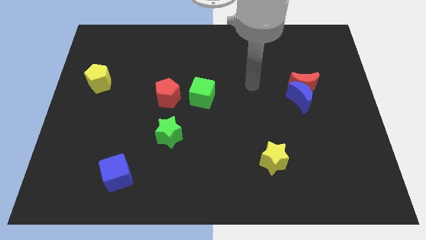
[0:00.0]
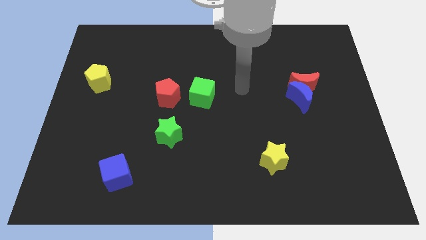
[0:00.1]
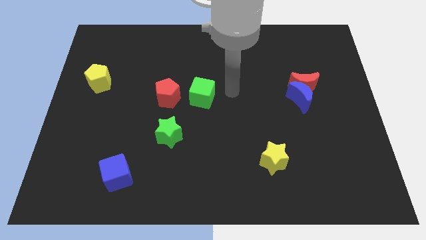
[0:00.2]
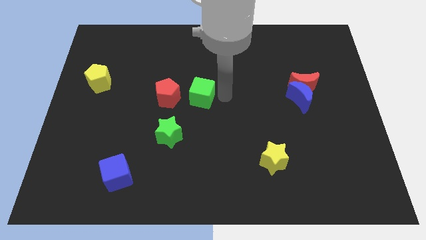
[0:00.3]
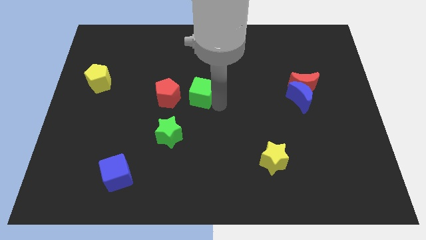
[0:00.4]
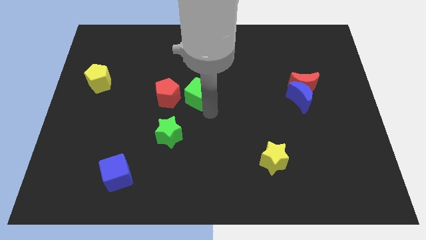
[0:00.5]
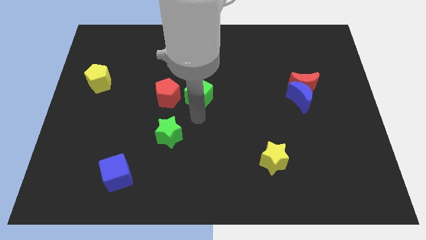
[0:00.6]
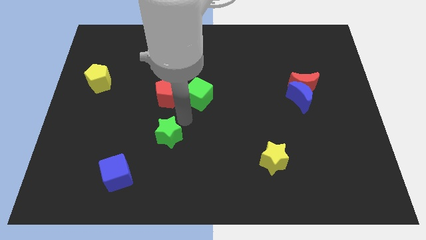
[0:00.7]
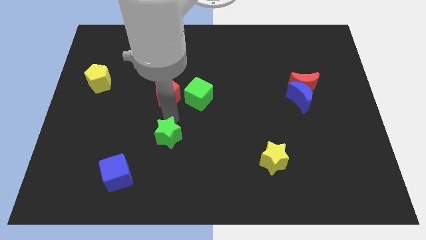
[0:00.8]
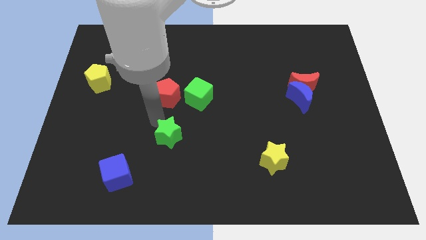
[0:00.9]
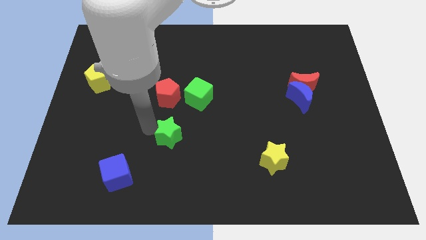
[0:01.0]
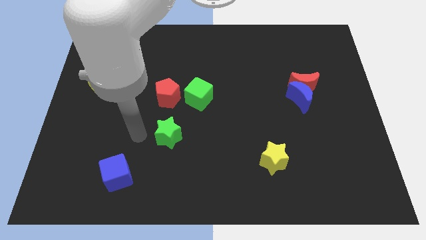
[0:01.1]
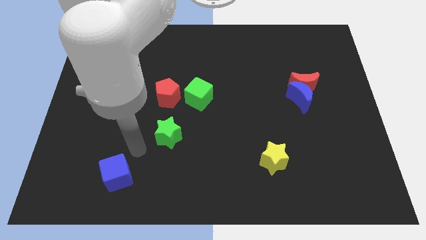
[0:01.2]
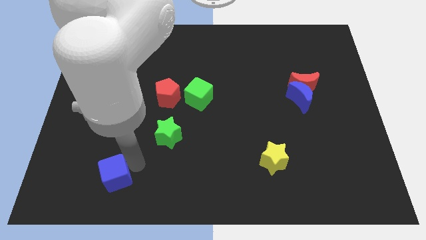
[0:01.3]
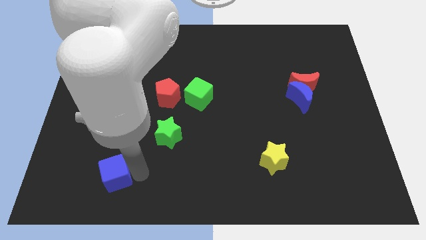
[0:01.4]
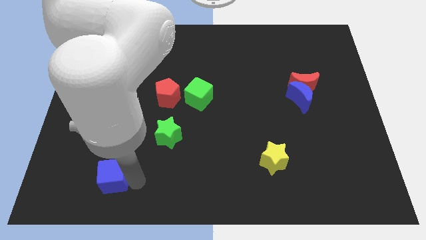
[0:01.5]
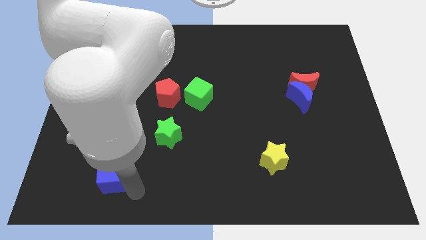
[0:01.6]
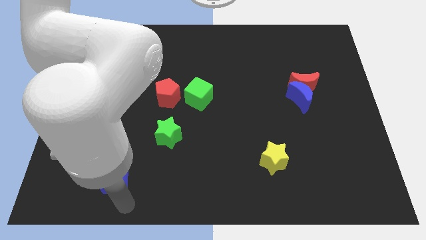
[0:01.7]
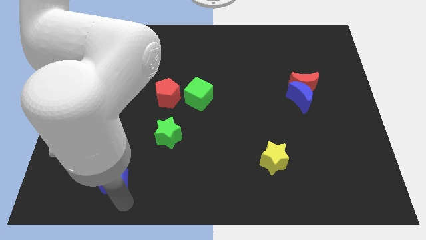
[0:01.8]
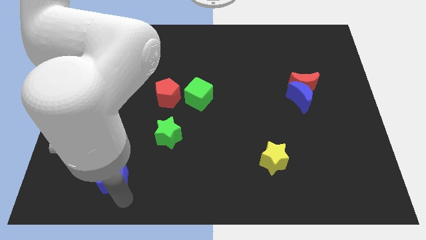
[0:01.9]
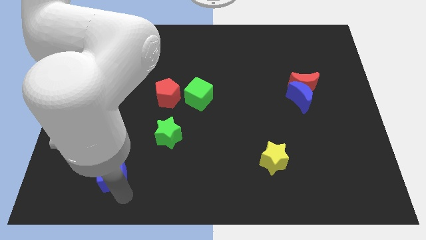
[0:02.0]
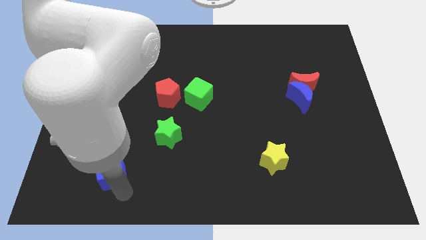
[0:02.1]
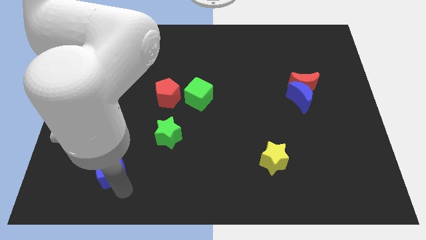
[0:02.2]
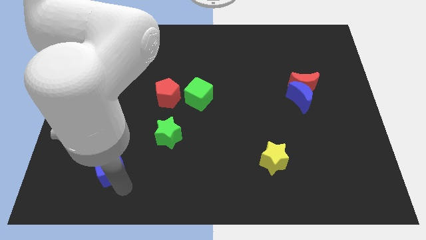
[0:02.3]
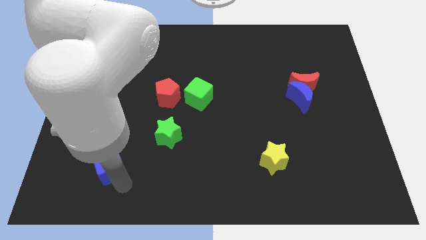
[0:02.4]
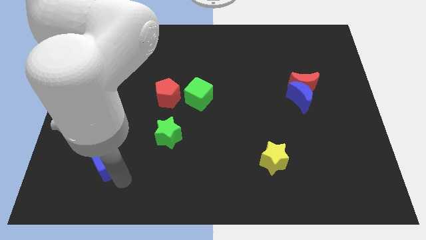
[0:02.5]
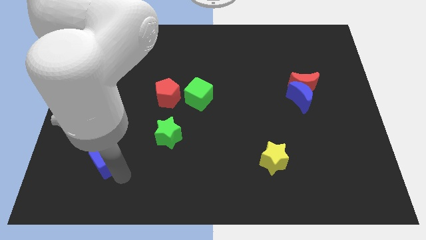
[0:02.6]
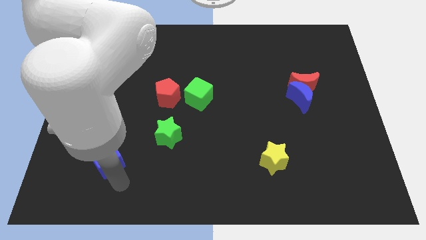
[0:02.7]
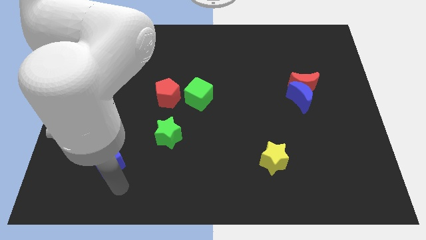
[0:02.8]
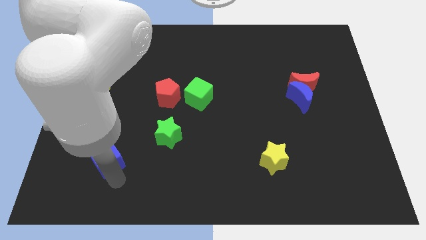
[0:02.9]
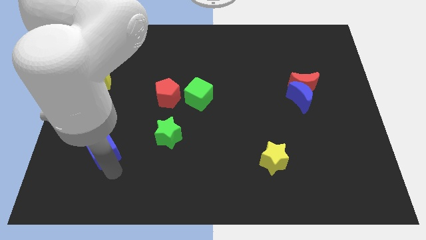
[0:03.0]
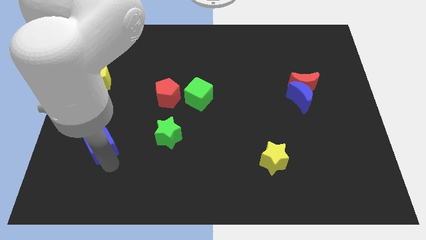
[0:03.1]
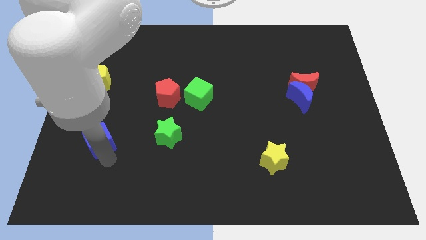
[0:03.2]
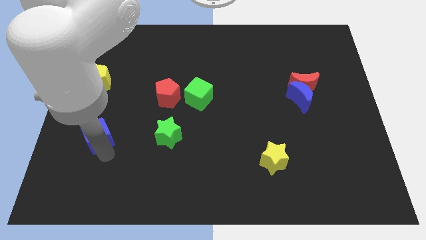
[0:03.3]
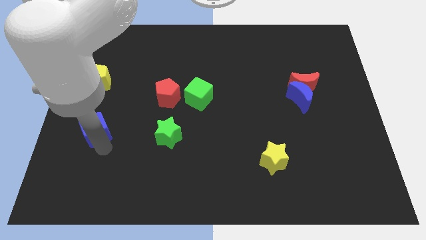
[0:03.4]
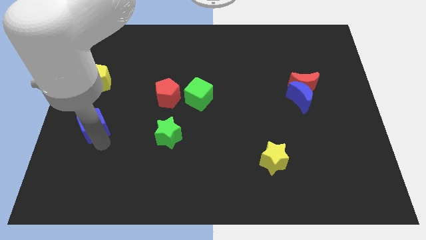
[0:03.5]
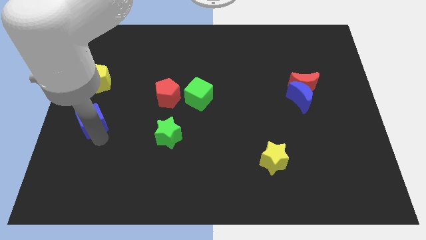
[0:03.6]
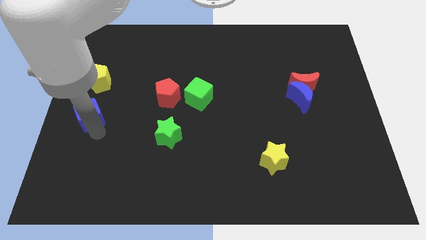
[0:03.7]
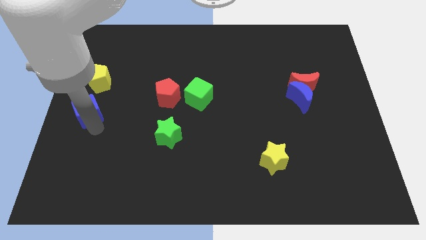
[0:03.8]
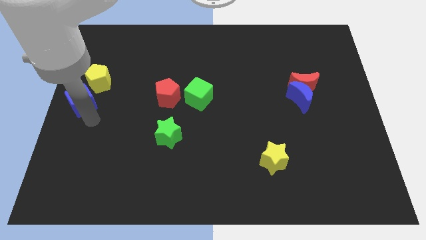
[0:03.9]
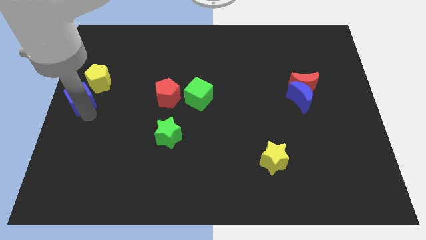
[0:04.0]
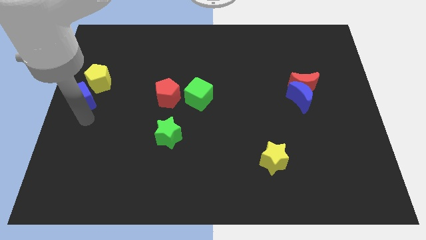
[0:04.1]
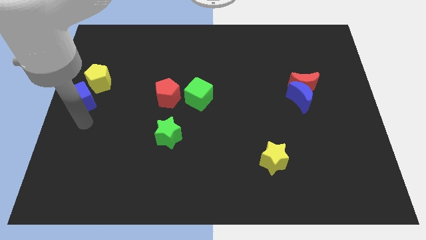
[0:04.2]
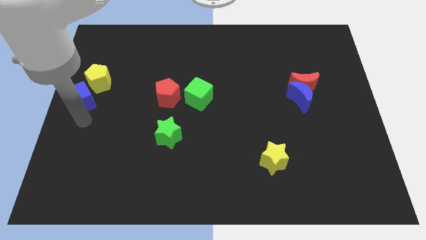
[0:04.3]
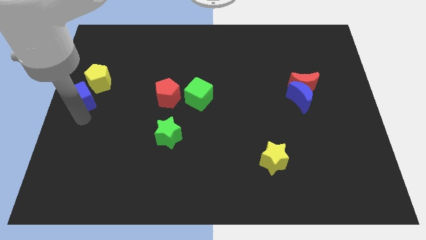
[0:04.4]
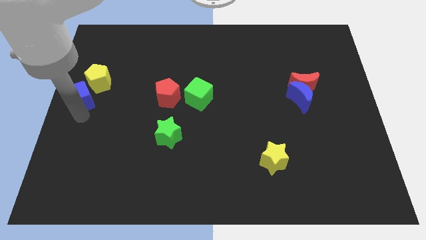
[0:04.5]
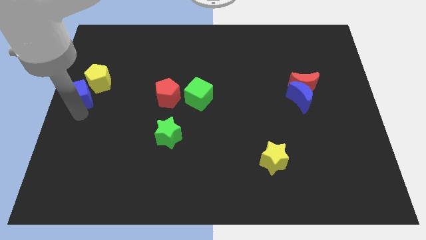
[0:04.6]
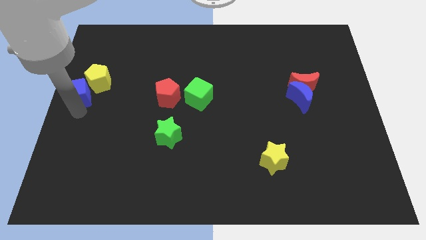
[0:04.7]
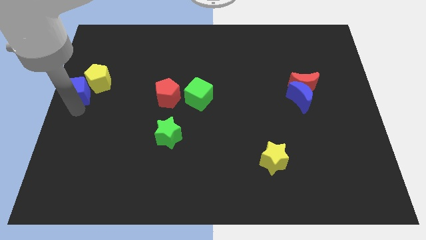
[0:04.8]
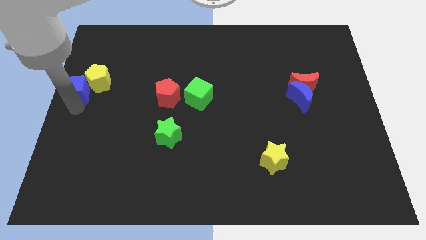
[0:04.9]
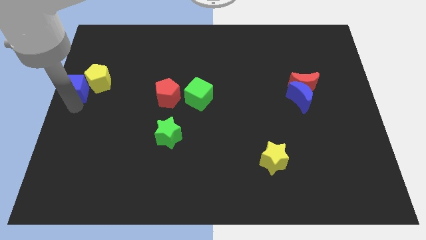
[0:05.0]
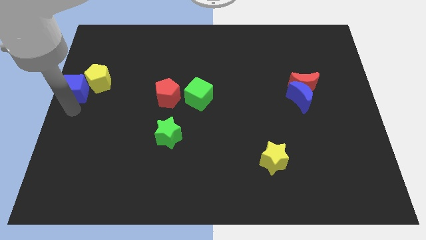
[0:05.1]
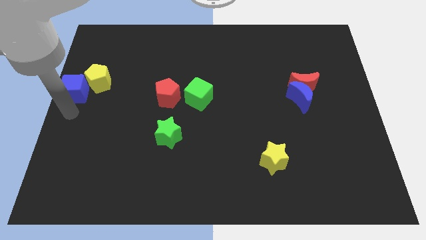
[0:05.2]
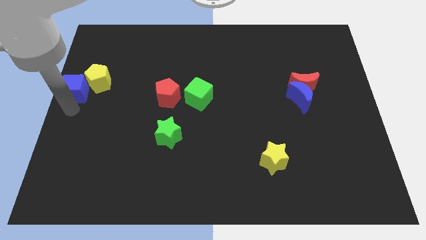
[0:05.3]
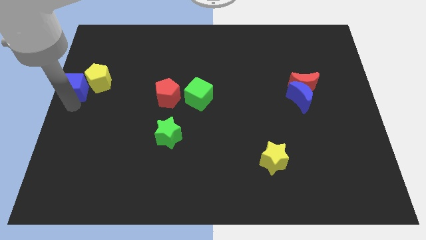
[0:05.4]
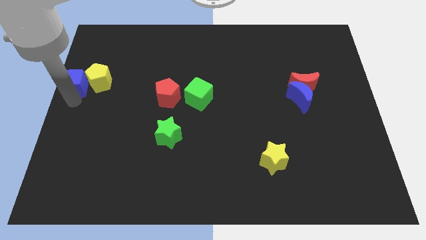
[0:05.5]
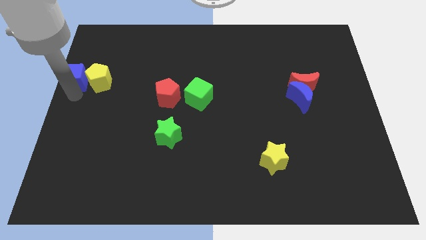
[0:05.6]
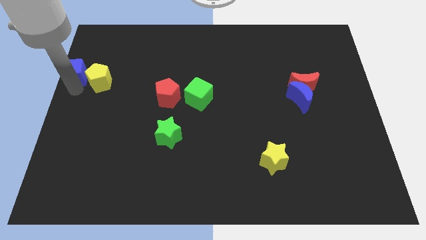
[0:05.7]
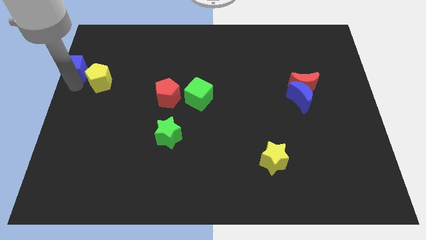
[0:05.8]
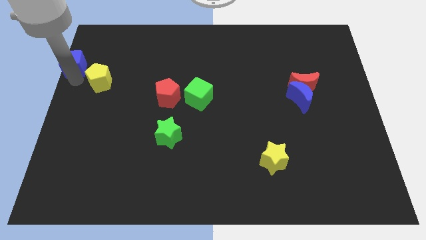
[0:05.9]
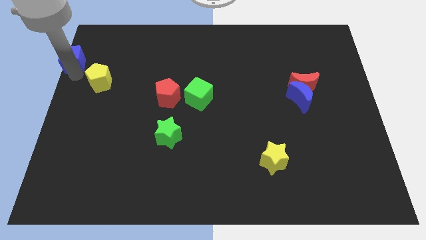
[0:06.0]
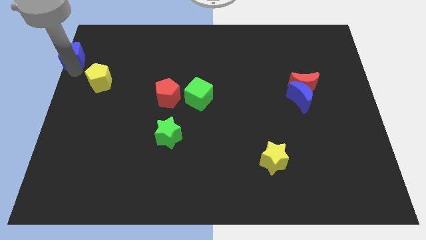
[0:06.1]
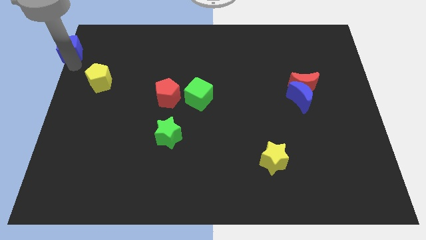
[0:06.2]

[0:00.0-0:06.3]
move the blue cube to the upper left corner

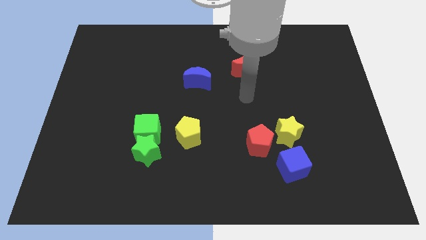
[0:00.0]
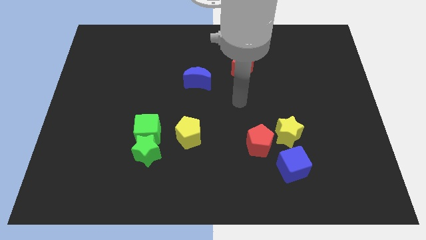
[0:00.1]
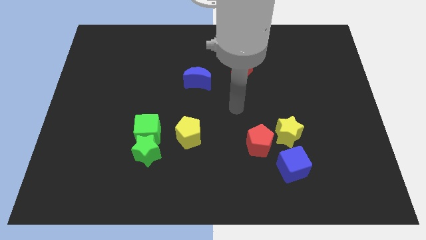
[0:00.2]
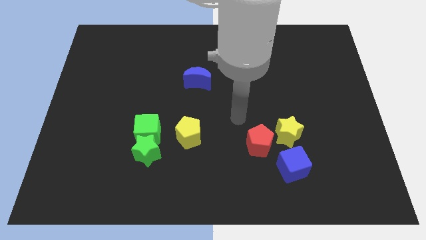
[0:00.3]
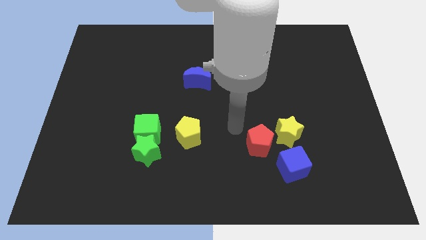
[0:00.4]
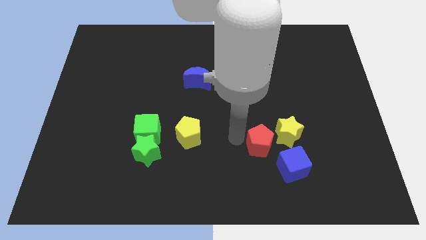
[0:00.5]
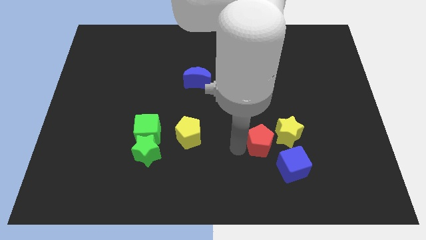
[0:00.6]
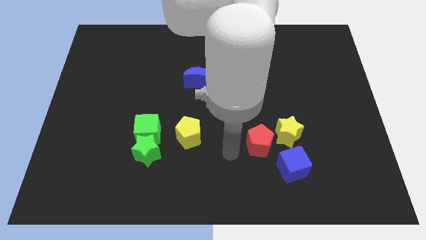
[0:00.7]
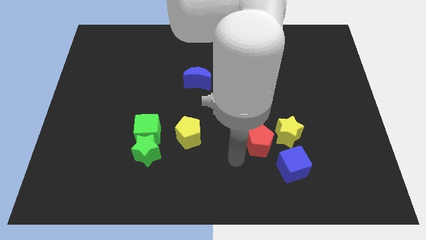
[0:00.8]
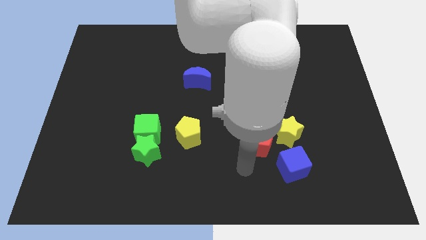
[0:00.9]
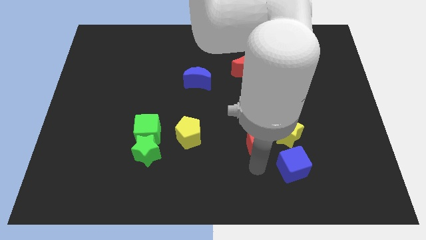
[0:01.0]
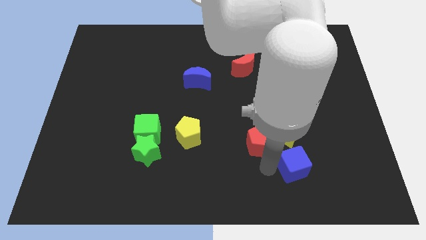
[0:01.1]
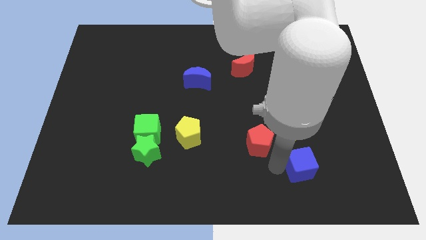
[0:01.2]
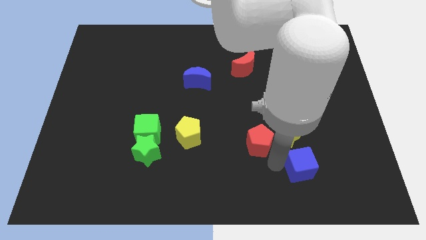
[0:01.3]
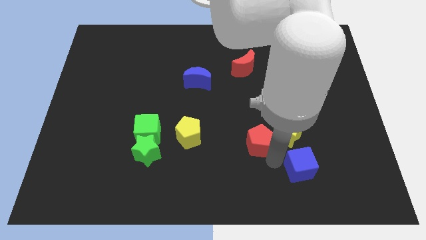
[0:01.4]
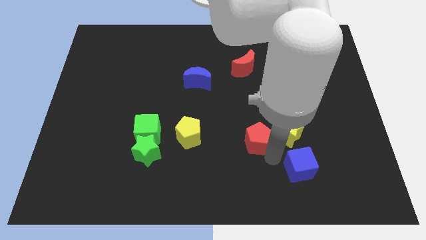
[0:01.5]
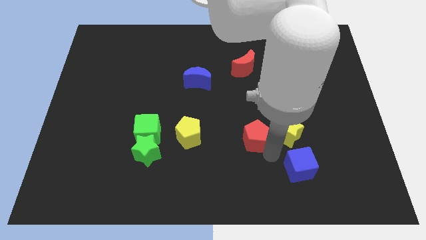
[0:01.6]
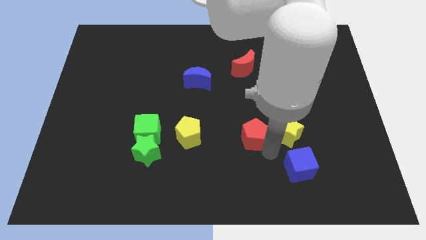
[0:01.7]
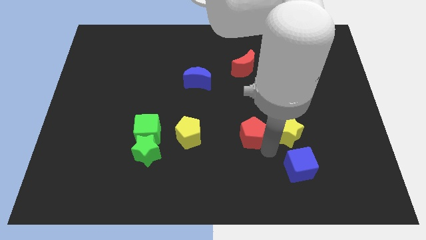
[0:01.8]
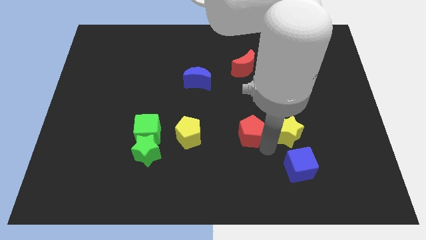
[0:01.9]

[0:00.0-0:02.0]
push the red pentagon to the middle of the board
